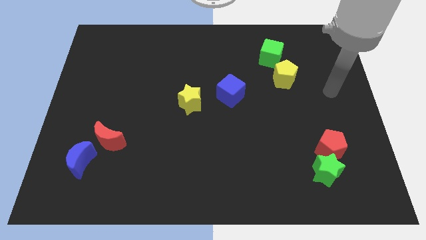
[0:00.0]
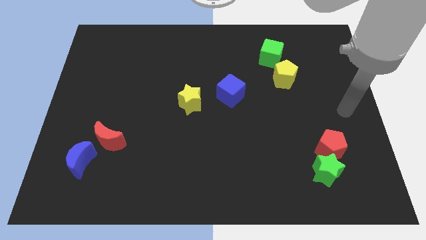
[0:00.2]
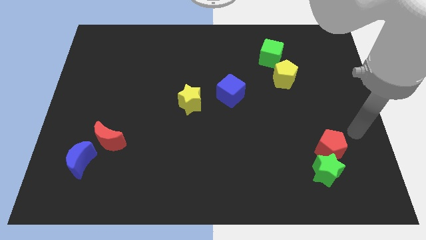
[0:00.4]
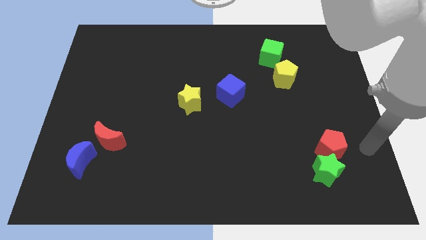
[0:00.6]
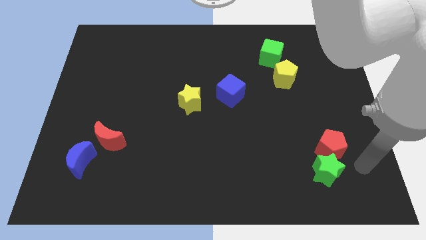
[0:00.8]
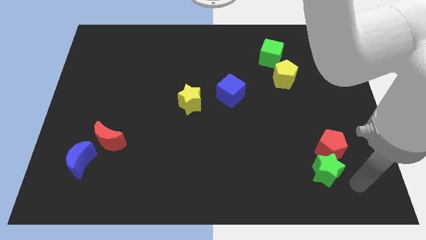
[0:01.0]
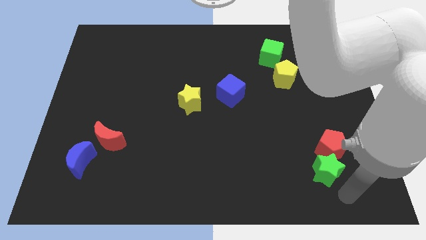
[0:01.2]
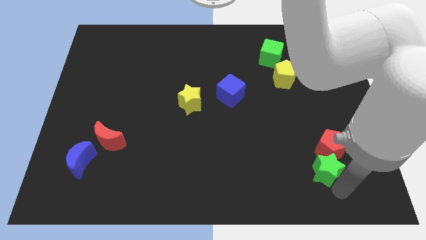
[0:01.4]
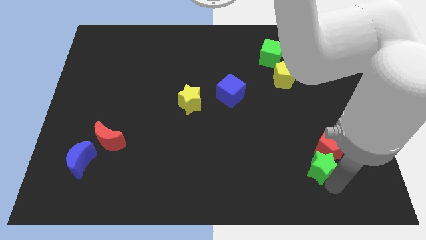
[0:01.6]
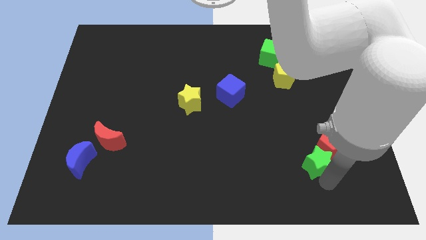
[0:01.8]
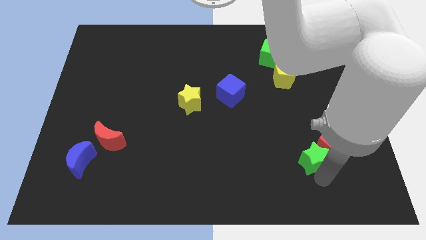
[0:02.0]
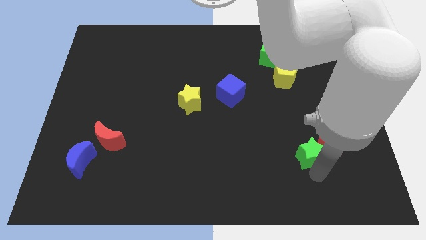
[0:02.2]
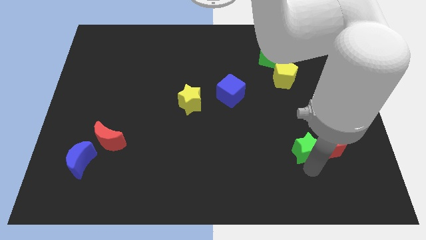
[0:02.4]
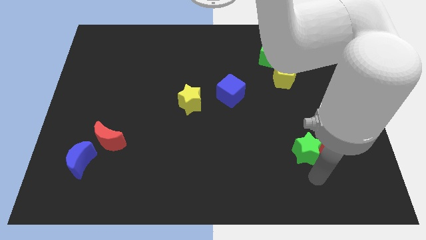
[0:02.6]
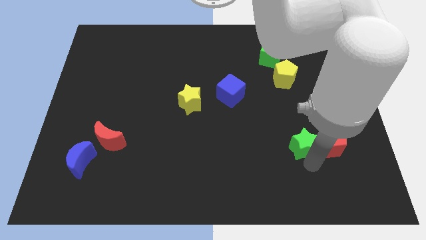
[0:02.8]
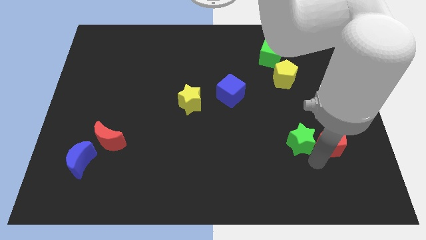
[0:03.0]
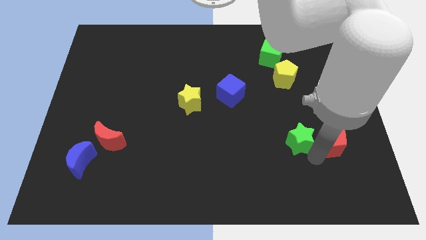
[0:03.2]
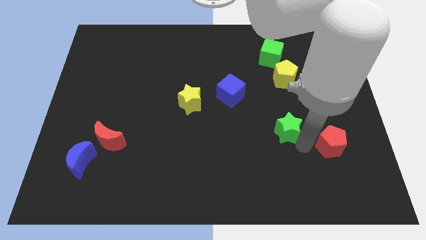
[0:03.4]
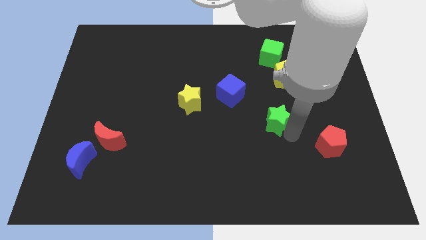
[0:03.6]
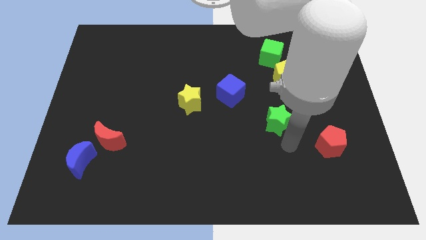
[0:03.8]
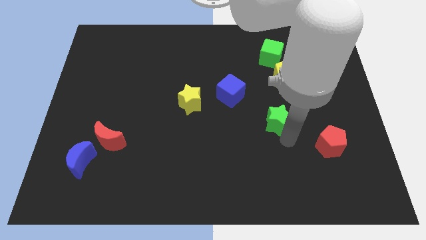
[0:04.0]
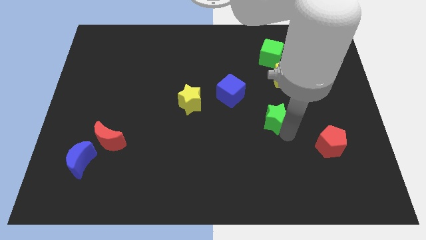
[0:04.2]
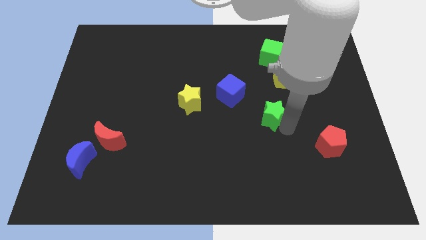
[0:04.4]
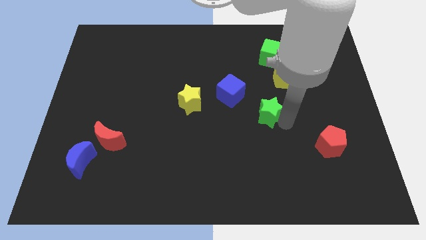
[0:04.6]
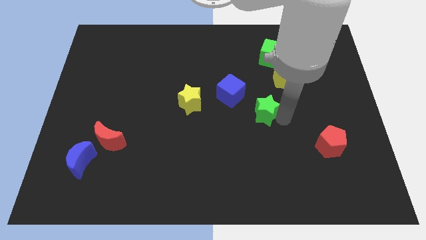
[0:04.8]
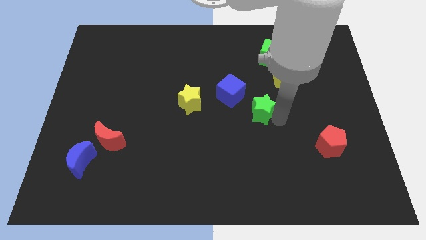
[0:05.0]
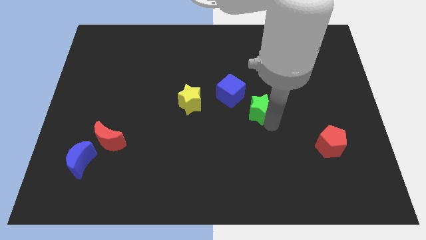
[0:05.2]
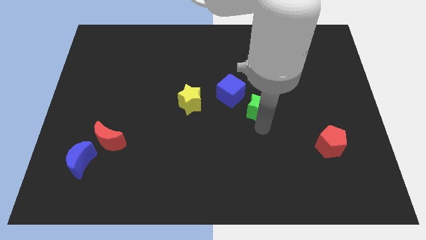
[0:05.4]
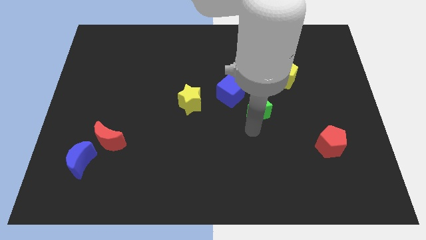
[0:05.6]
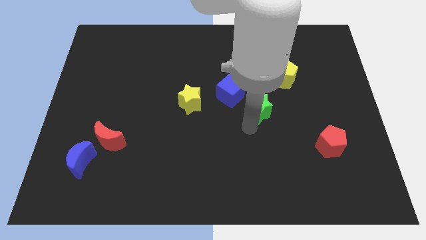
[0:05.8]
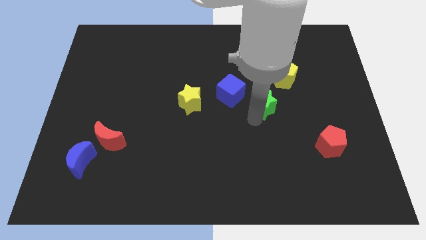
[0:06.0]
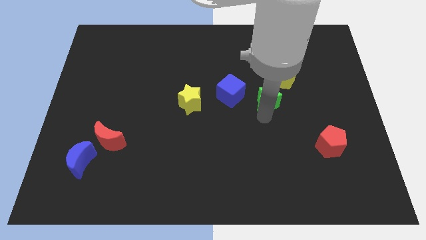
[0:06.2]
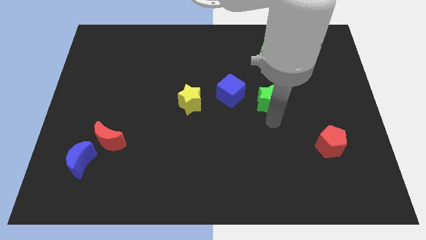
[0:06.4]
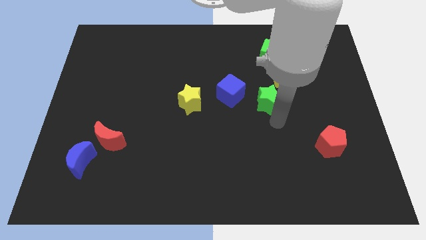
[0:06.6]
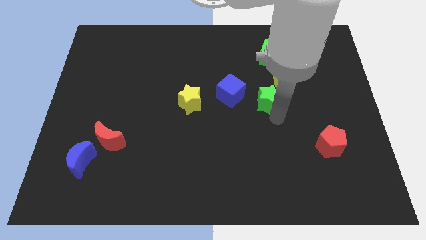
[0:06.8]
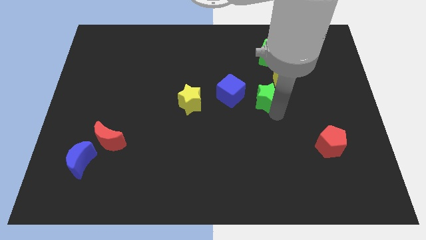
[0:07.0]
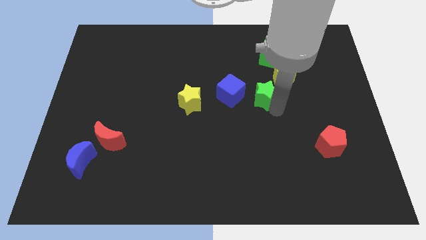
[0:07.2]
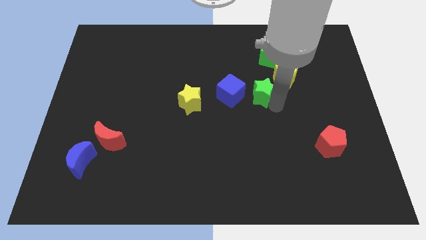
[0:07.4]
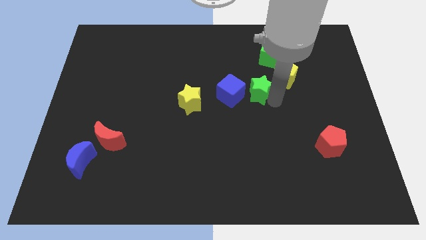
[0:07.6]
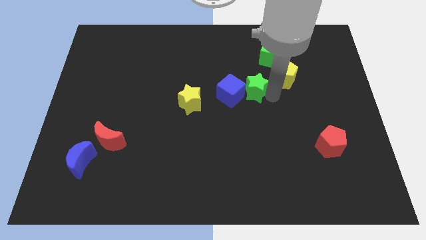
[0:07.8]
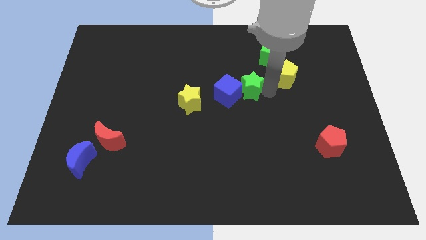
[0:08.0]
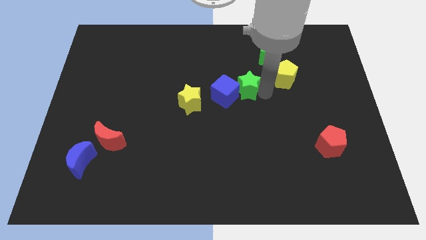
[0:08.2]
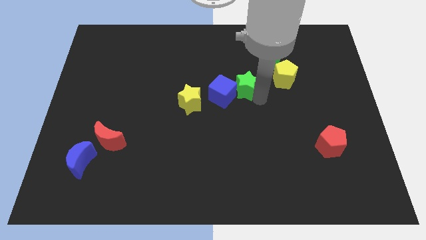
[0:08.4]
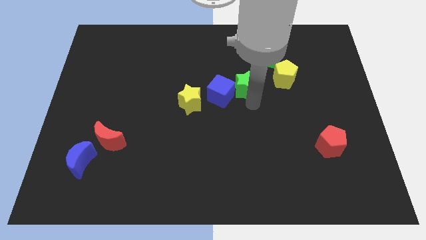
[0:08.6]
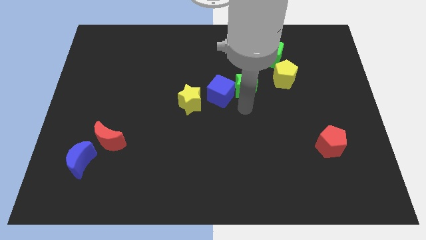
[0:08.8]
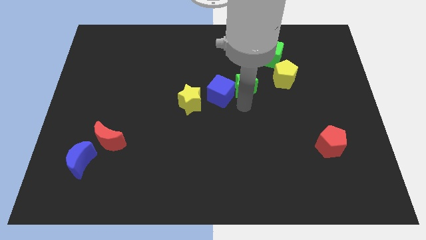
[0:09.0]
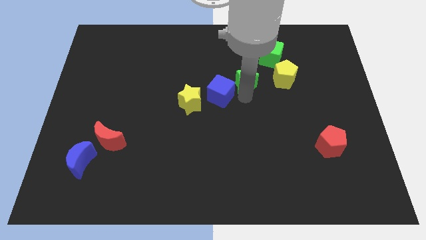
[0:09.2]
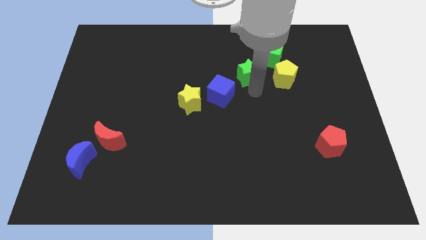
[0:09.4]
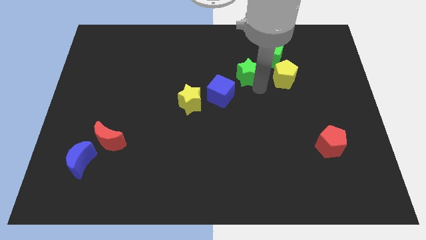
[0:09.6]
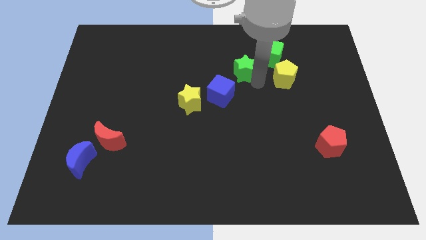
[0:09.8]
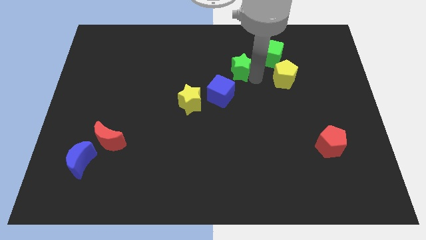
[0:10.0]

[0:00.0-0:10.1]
push the green star to the left of the green cube

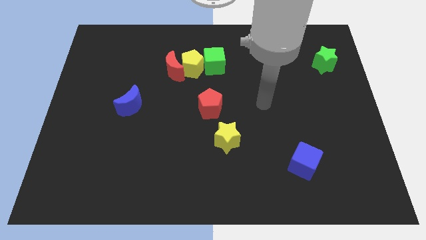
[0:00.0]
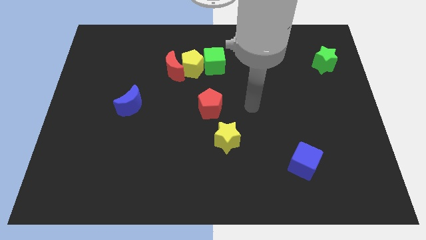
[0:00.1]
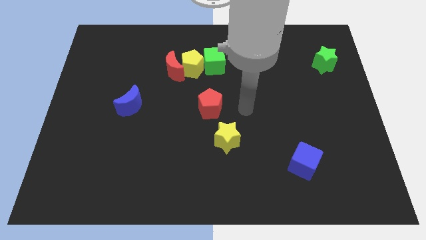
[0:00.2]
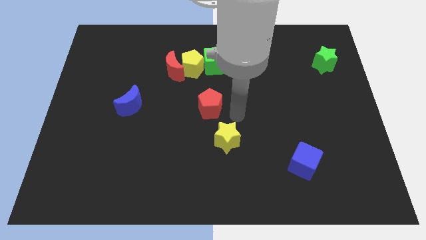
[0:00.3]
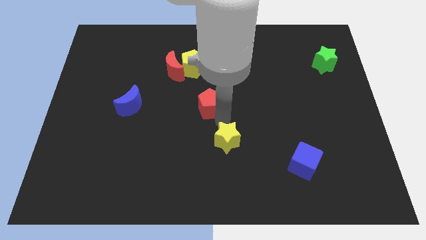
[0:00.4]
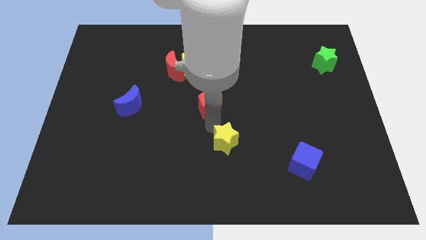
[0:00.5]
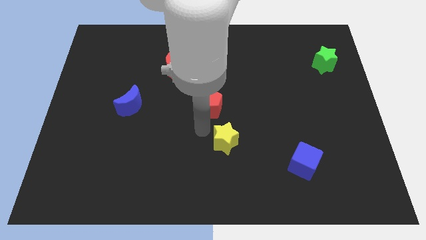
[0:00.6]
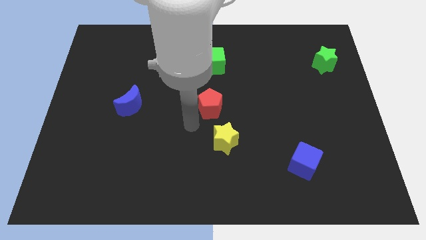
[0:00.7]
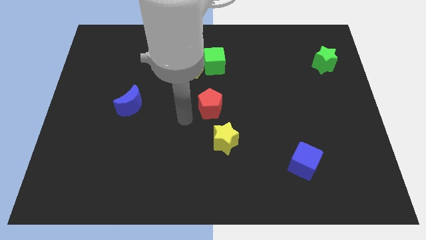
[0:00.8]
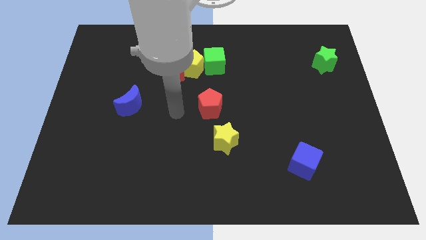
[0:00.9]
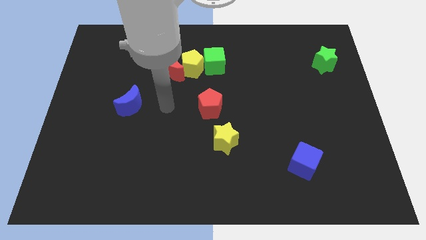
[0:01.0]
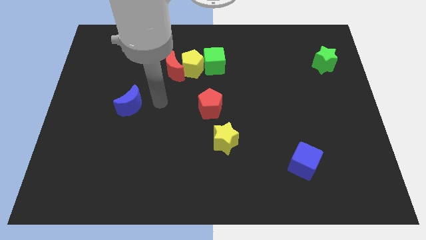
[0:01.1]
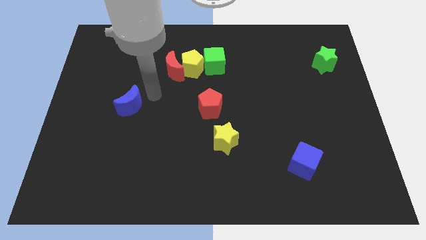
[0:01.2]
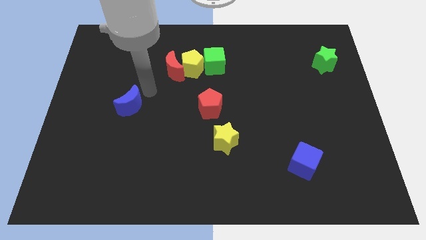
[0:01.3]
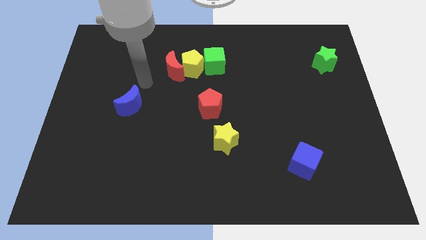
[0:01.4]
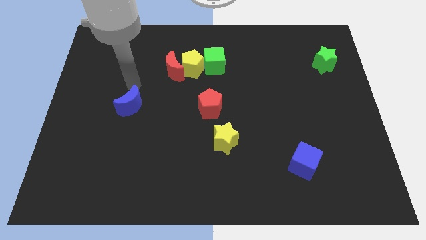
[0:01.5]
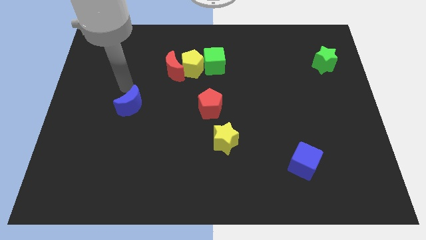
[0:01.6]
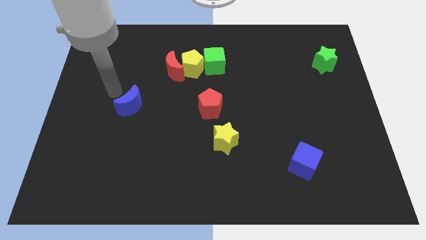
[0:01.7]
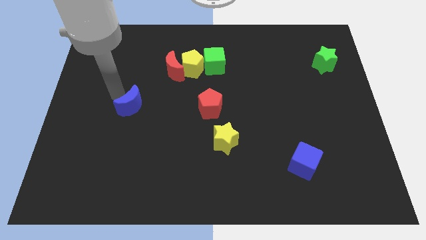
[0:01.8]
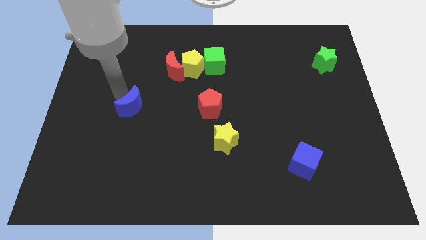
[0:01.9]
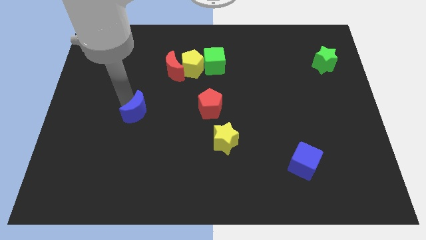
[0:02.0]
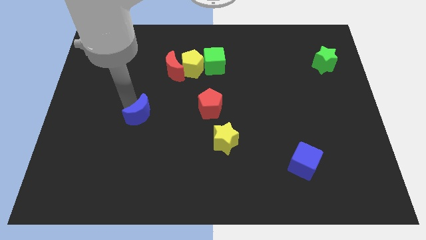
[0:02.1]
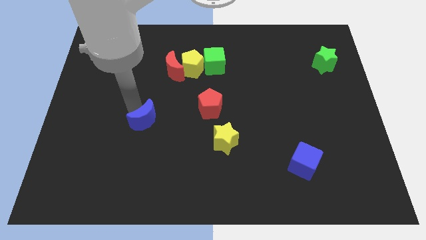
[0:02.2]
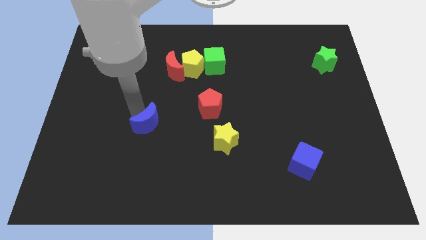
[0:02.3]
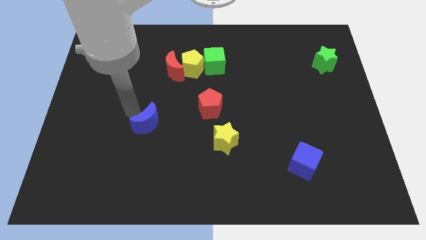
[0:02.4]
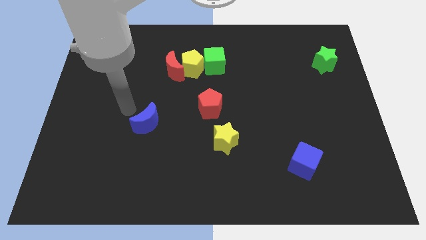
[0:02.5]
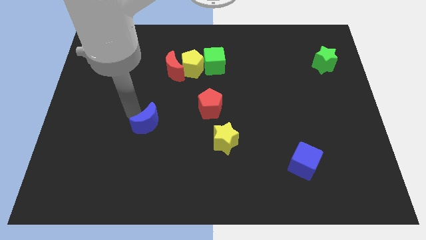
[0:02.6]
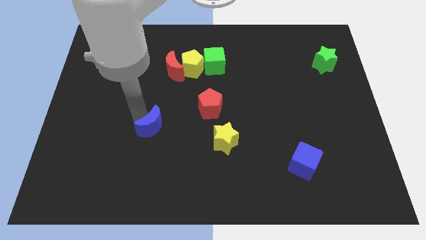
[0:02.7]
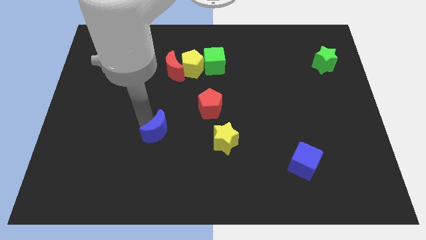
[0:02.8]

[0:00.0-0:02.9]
move the blue moon to the left side of the yellow star
